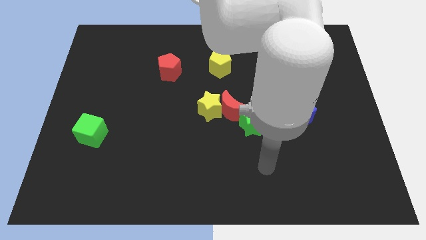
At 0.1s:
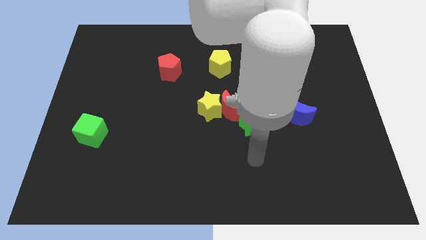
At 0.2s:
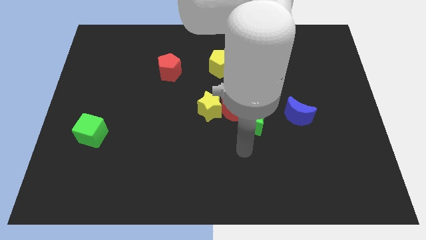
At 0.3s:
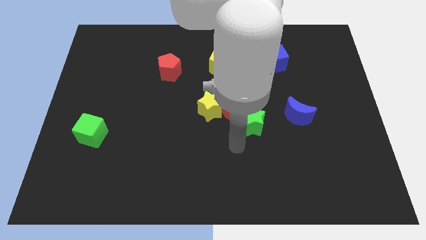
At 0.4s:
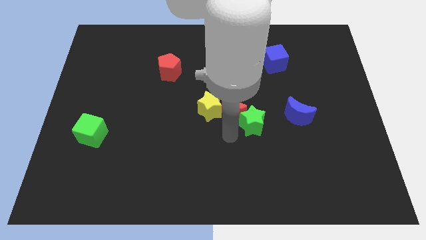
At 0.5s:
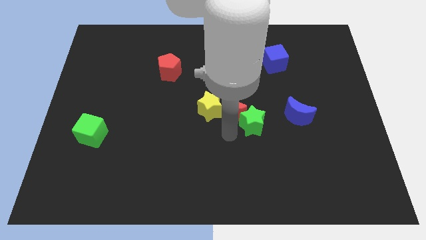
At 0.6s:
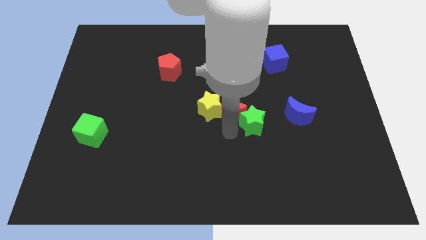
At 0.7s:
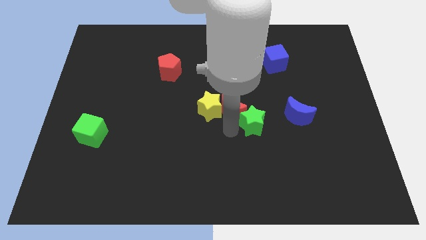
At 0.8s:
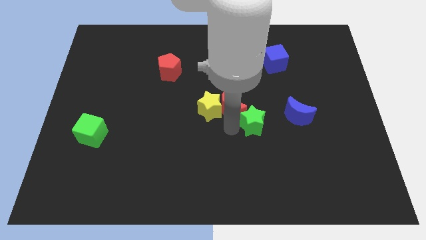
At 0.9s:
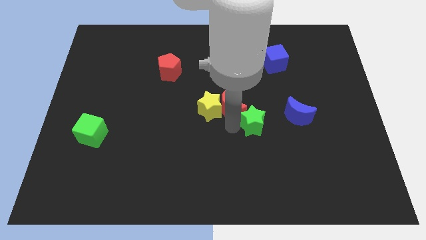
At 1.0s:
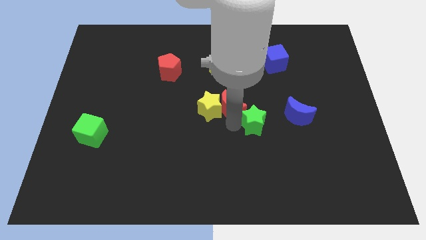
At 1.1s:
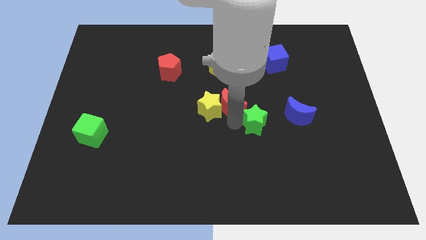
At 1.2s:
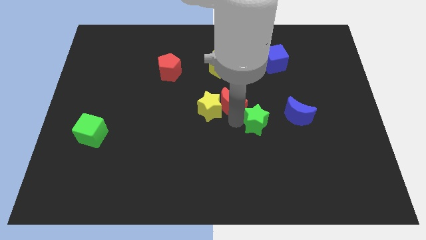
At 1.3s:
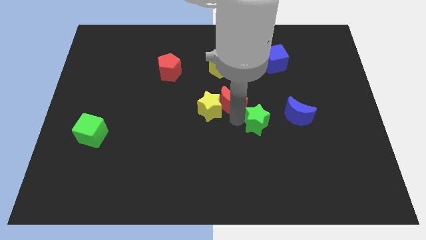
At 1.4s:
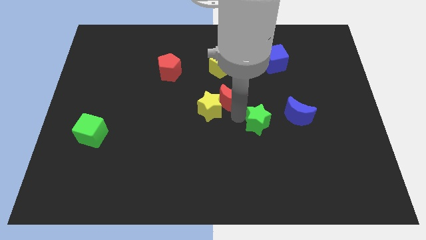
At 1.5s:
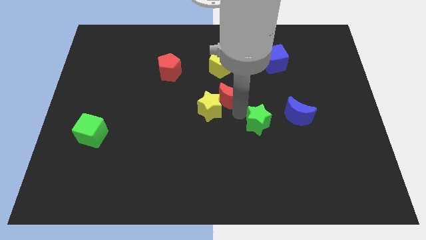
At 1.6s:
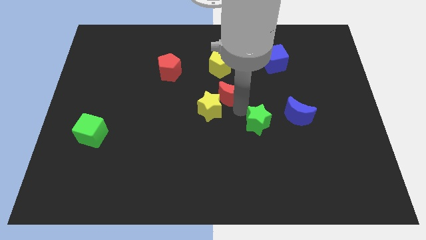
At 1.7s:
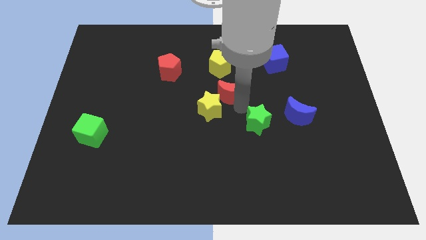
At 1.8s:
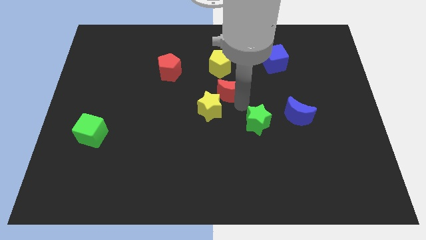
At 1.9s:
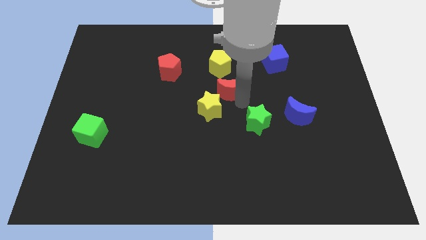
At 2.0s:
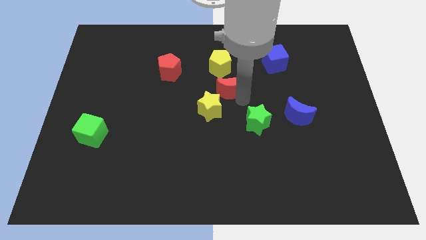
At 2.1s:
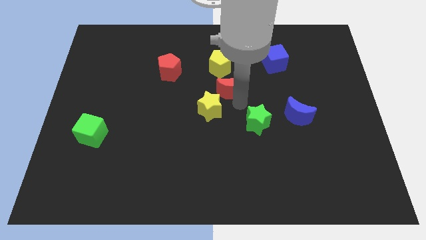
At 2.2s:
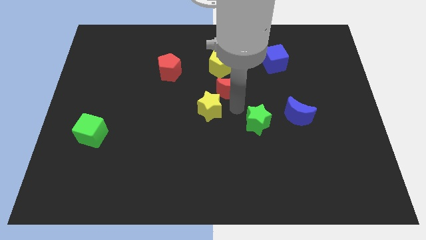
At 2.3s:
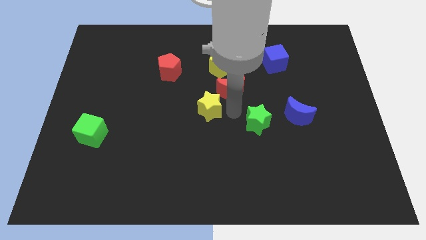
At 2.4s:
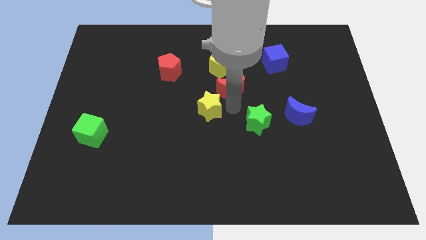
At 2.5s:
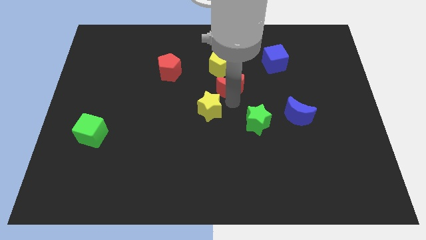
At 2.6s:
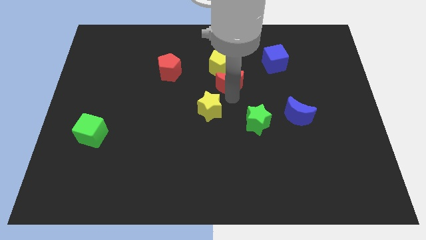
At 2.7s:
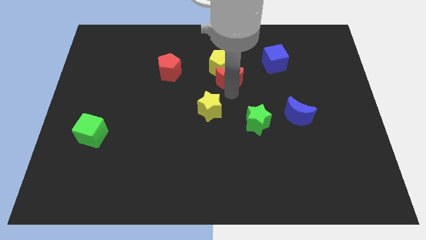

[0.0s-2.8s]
pull the red moon apart from the yellow star and green star

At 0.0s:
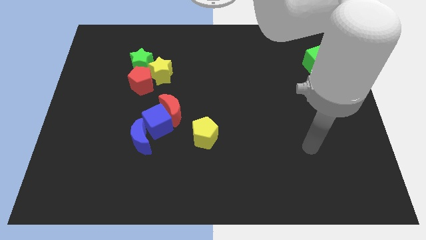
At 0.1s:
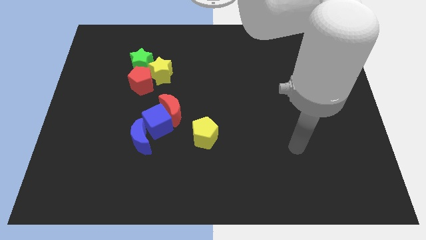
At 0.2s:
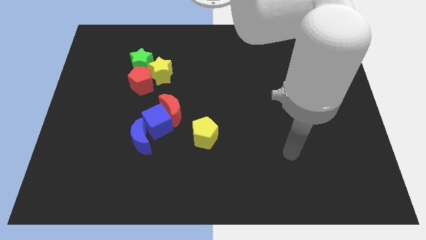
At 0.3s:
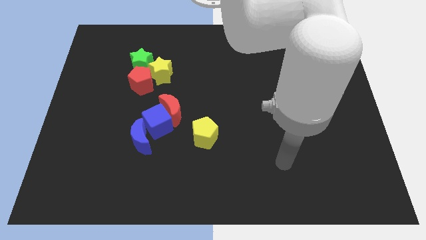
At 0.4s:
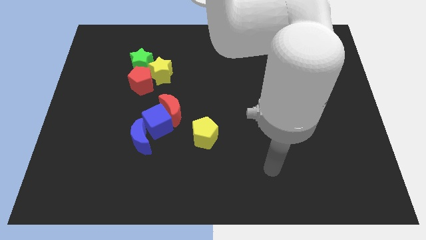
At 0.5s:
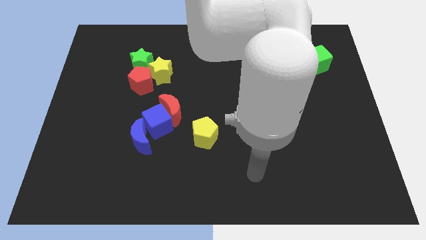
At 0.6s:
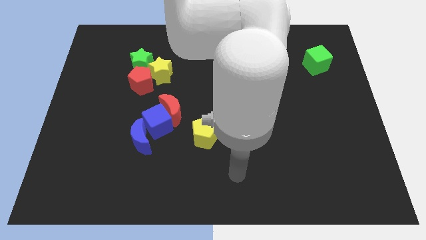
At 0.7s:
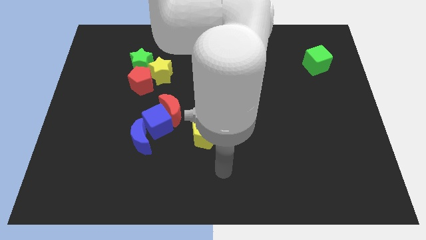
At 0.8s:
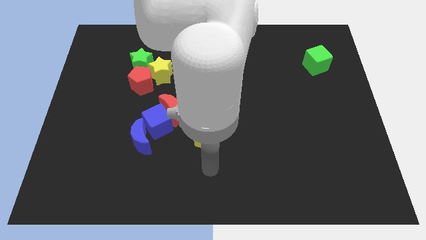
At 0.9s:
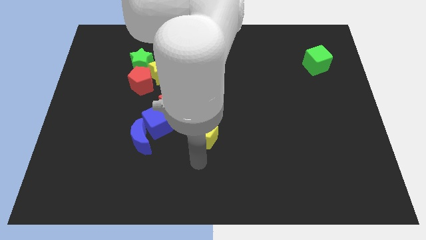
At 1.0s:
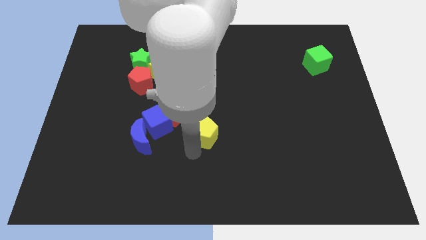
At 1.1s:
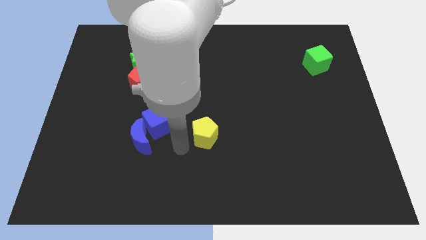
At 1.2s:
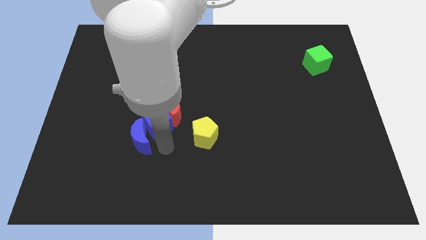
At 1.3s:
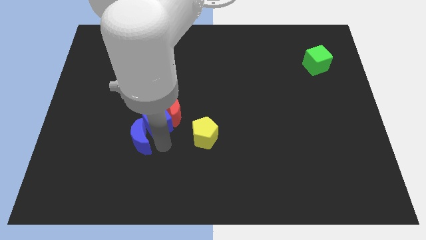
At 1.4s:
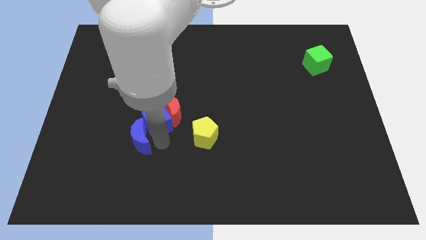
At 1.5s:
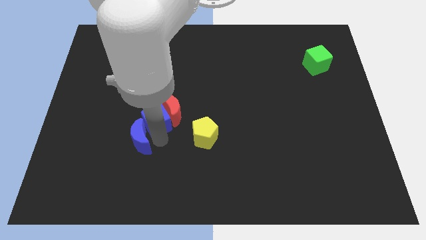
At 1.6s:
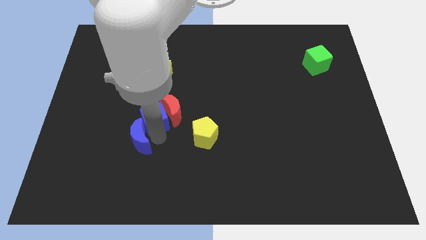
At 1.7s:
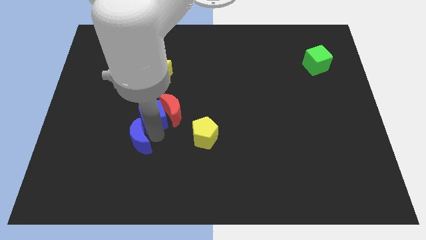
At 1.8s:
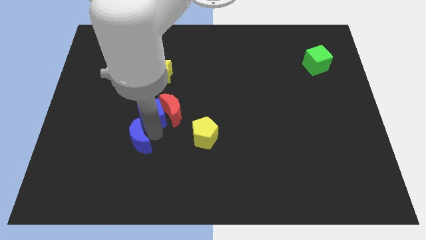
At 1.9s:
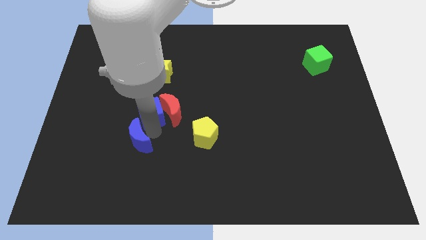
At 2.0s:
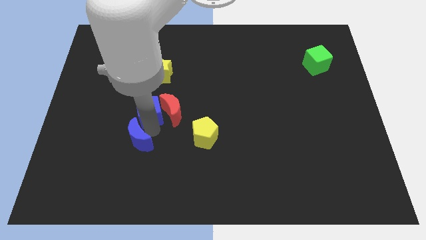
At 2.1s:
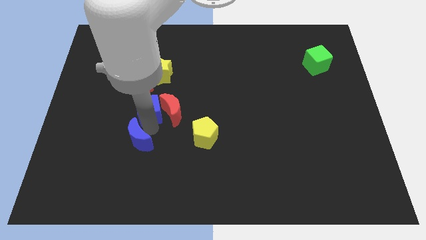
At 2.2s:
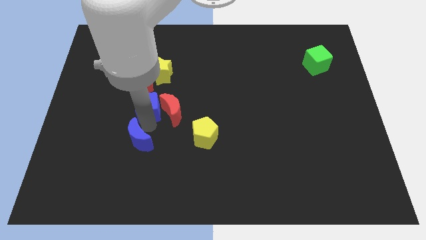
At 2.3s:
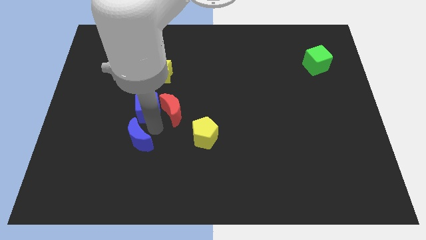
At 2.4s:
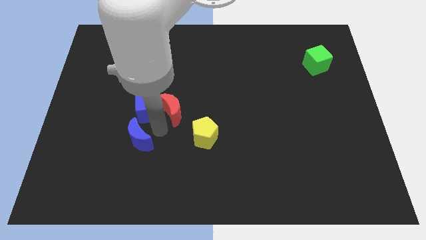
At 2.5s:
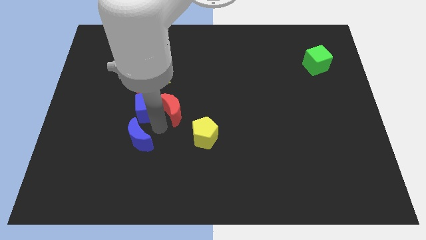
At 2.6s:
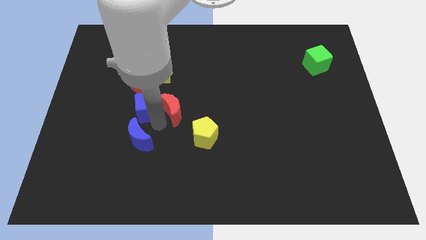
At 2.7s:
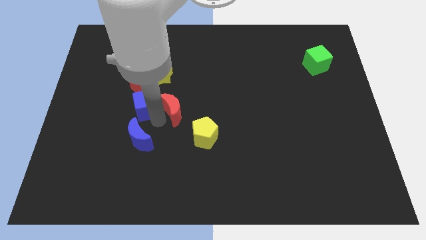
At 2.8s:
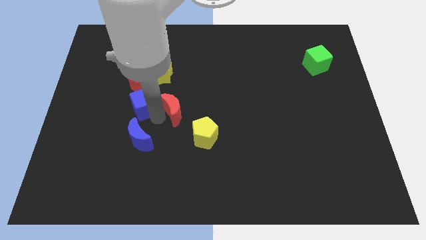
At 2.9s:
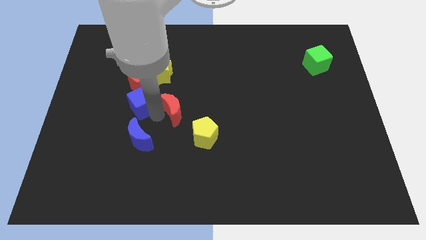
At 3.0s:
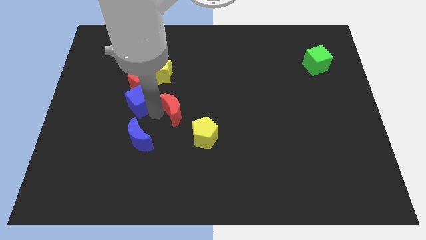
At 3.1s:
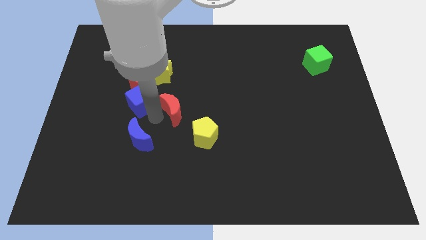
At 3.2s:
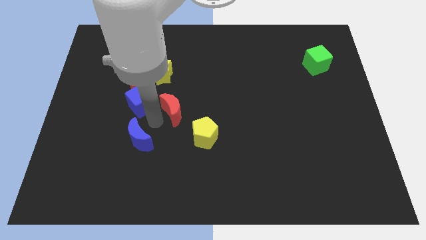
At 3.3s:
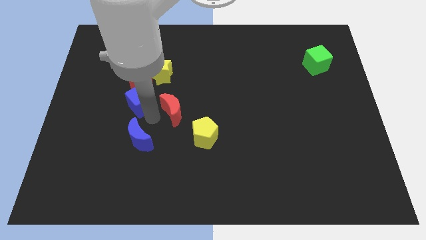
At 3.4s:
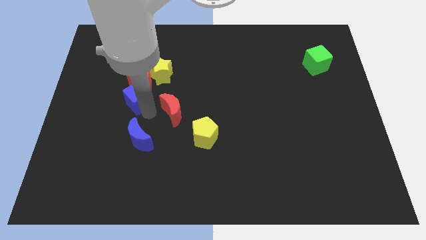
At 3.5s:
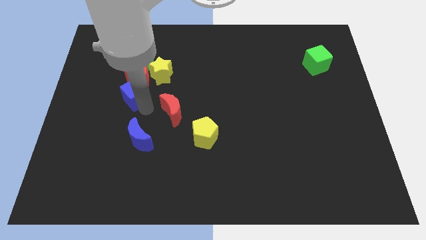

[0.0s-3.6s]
separate the blue cube from the red moon and blue moon

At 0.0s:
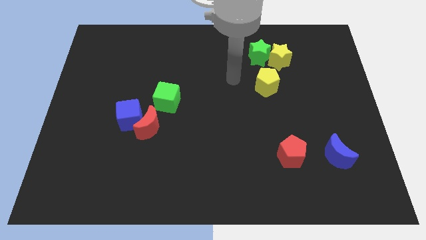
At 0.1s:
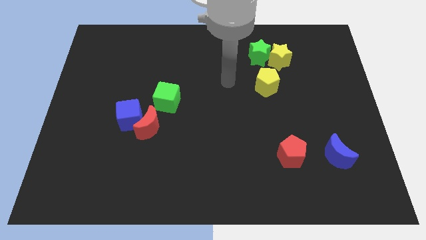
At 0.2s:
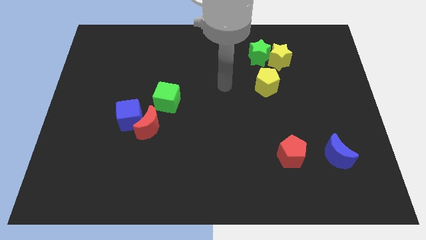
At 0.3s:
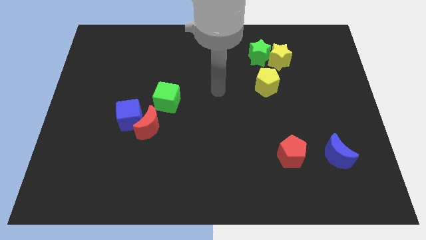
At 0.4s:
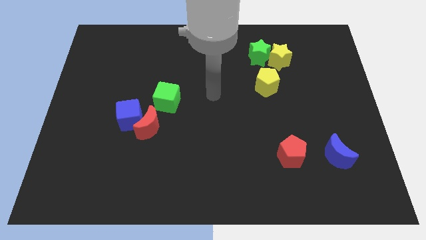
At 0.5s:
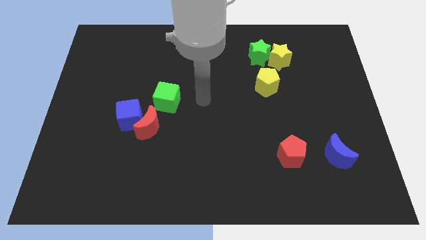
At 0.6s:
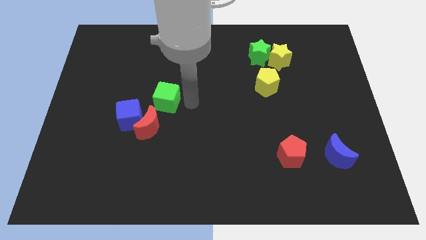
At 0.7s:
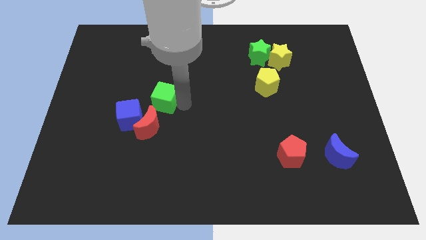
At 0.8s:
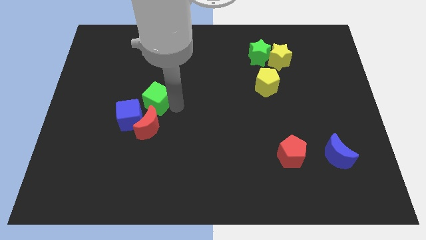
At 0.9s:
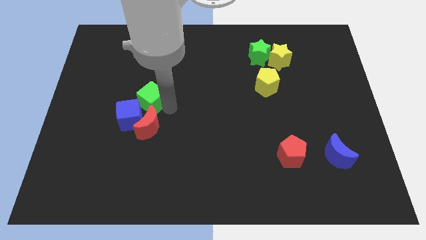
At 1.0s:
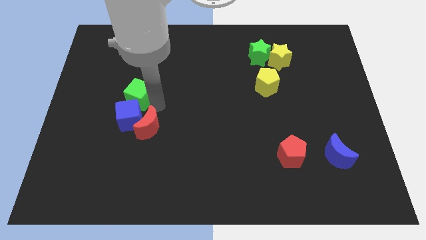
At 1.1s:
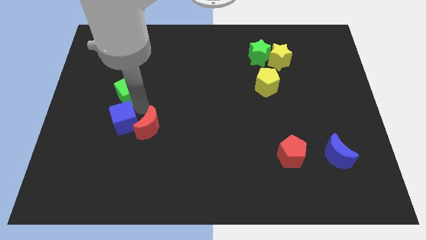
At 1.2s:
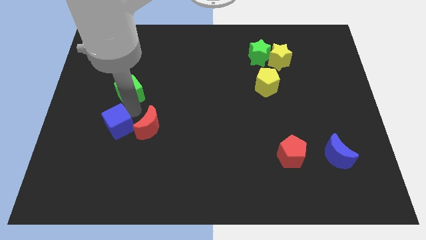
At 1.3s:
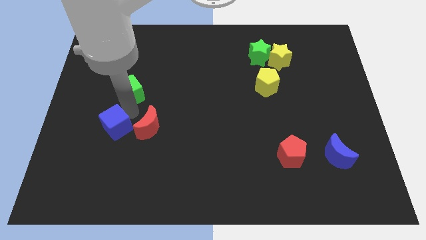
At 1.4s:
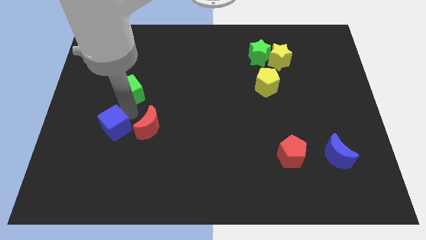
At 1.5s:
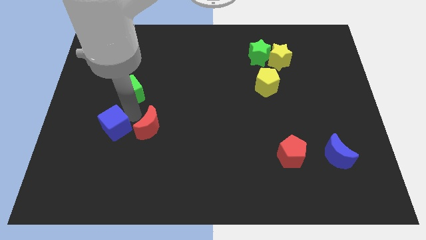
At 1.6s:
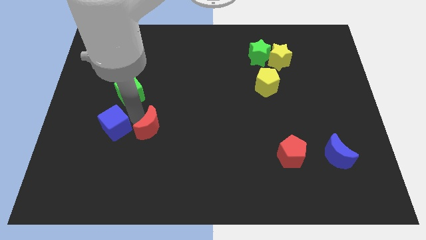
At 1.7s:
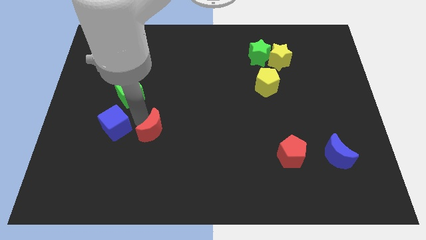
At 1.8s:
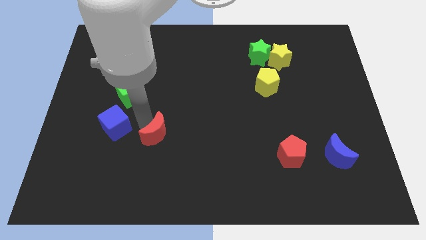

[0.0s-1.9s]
pull the red moon apart from the blue cube and green cube

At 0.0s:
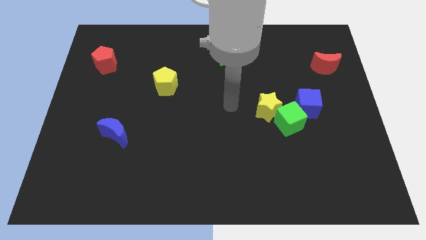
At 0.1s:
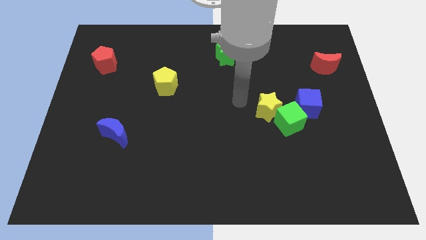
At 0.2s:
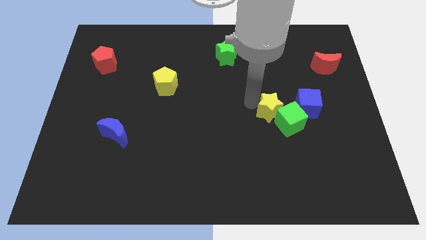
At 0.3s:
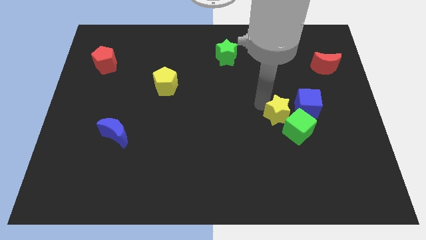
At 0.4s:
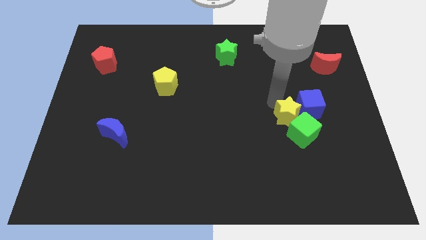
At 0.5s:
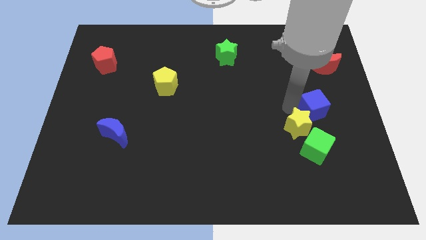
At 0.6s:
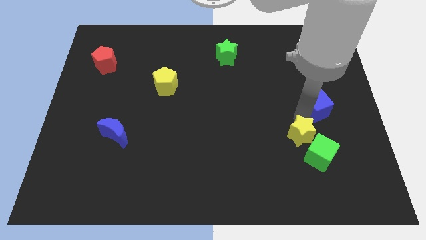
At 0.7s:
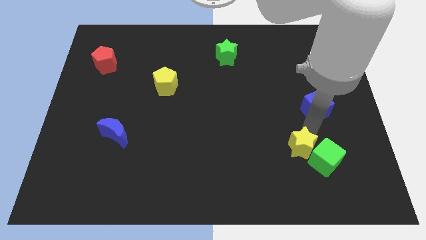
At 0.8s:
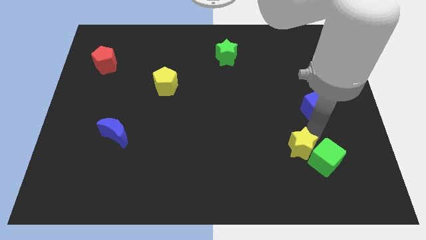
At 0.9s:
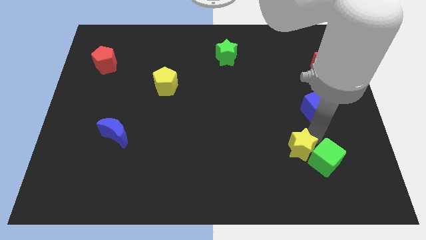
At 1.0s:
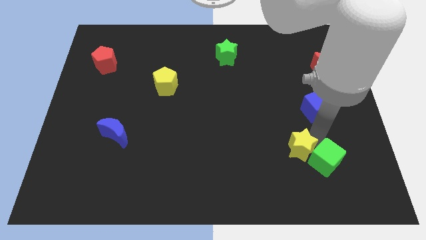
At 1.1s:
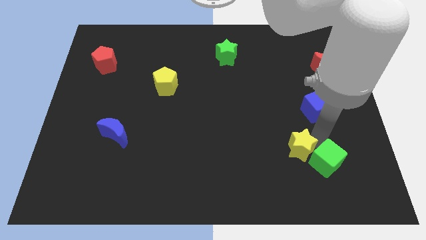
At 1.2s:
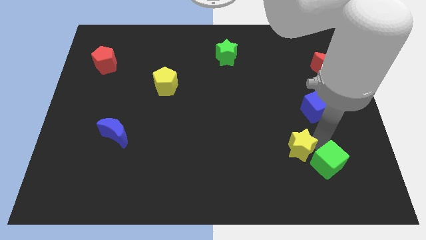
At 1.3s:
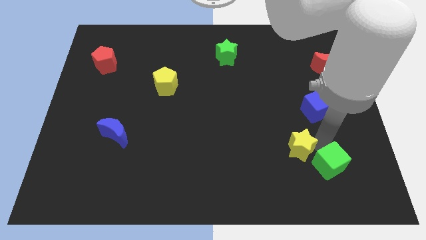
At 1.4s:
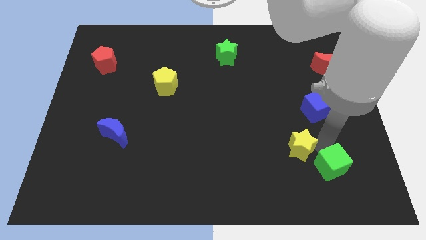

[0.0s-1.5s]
move the green cube away from the yellow star and blue cube
